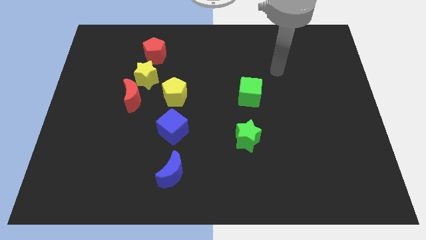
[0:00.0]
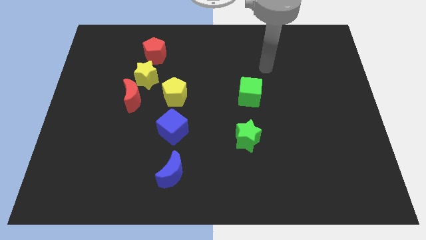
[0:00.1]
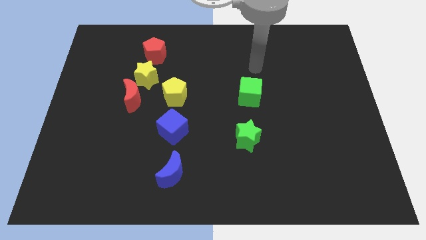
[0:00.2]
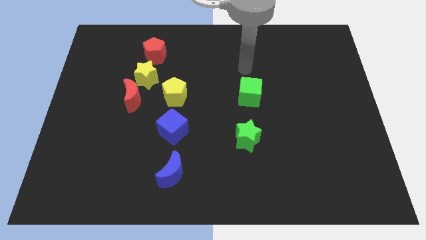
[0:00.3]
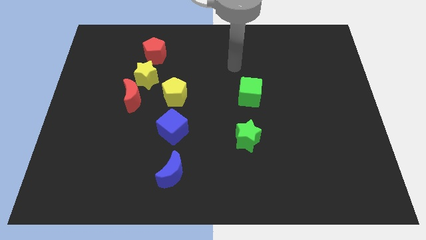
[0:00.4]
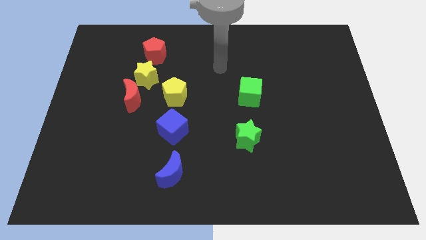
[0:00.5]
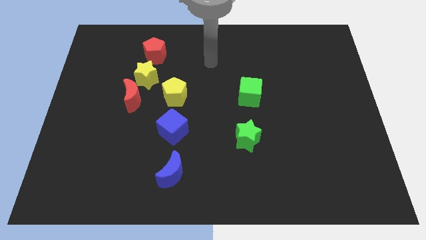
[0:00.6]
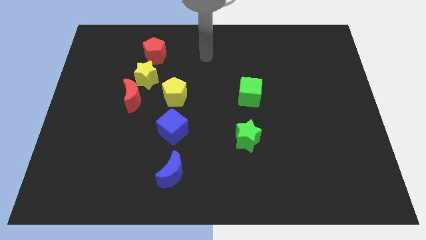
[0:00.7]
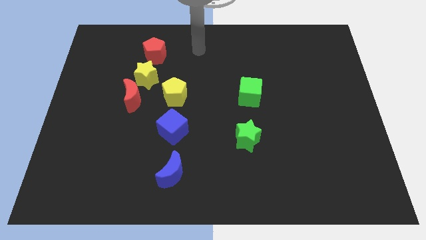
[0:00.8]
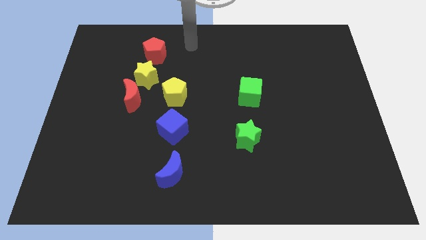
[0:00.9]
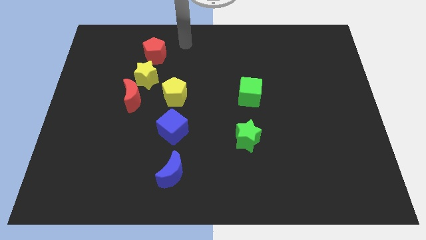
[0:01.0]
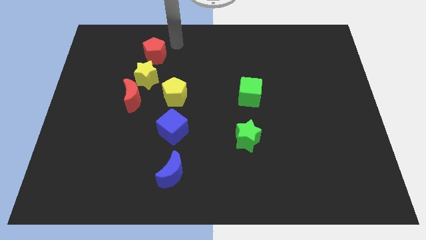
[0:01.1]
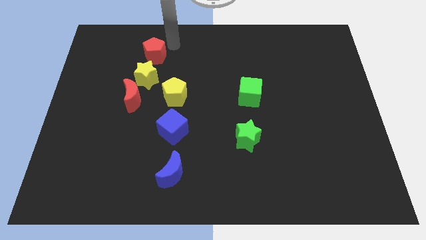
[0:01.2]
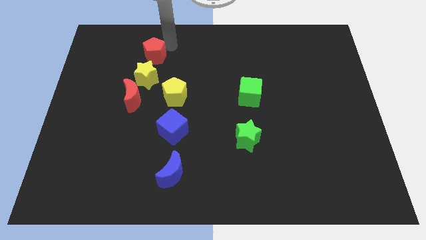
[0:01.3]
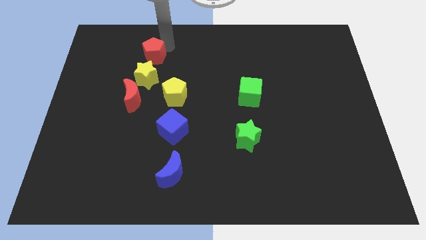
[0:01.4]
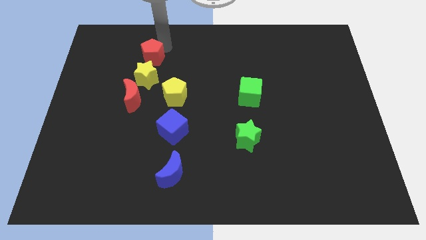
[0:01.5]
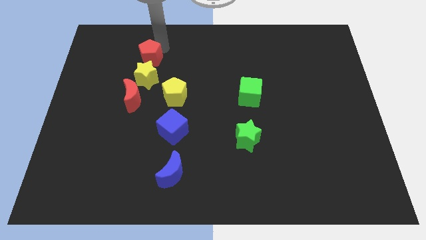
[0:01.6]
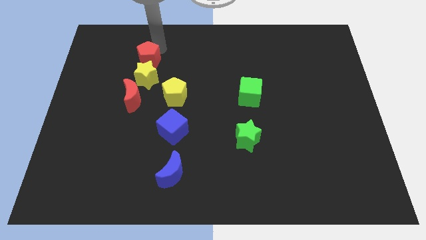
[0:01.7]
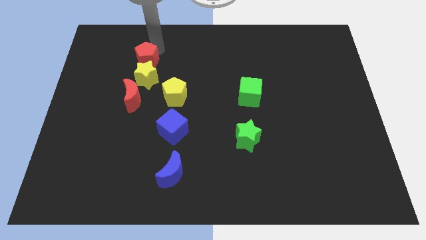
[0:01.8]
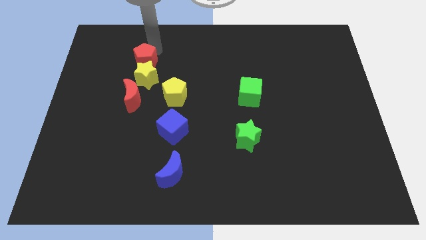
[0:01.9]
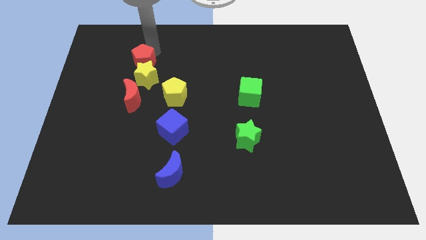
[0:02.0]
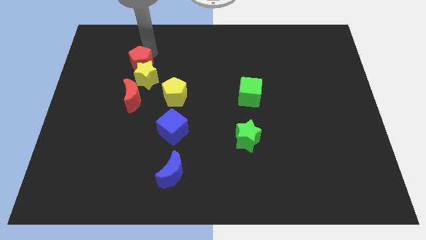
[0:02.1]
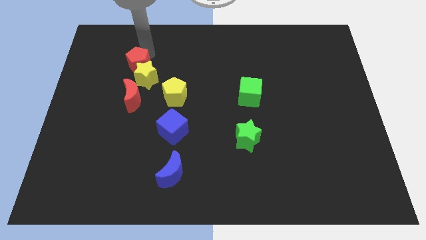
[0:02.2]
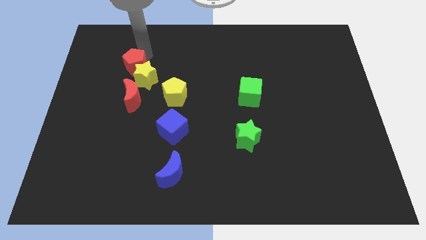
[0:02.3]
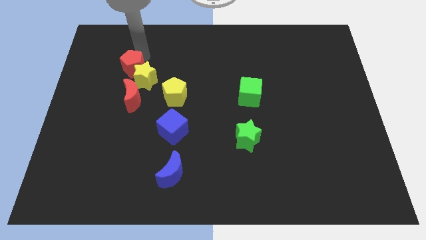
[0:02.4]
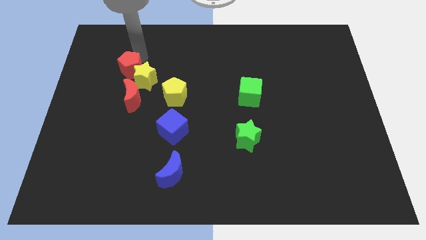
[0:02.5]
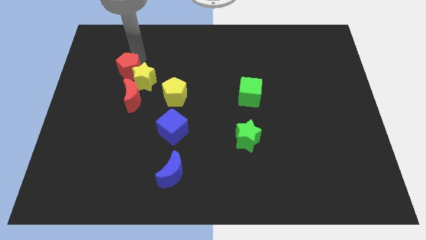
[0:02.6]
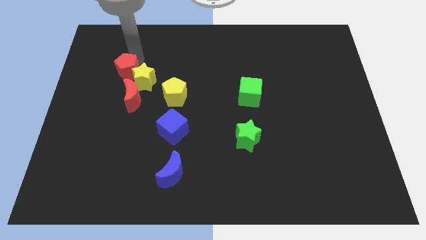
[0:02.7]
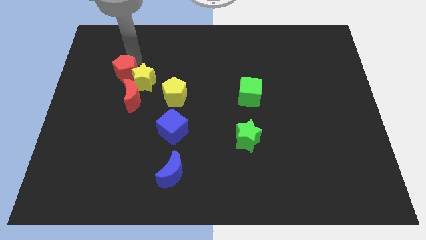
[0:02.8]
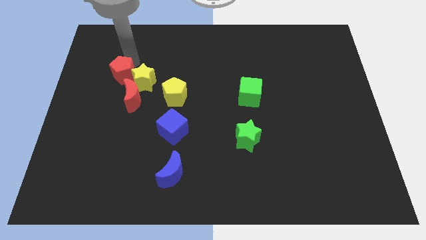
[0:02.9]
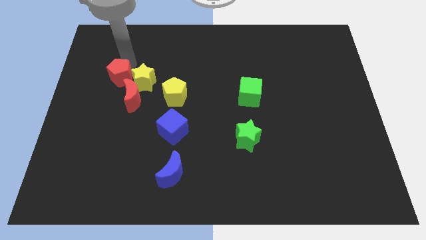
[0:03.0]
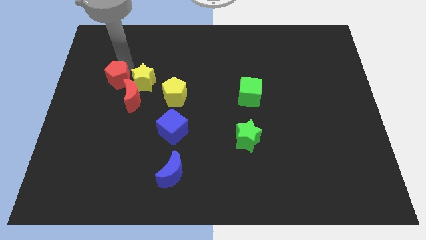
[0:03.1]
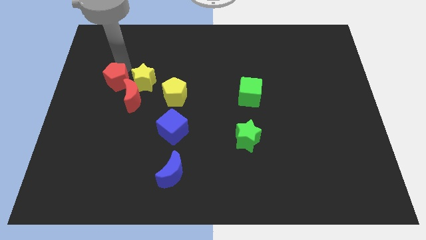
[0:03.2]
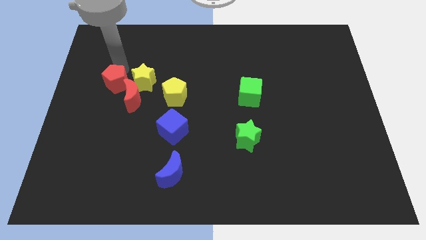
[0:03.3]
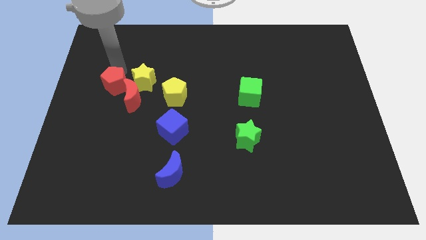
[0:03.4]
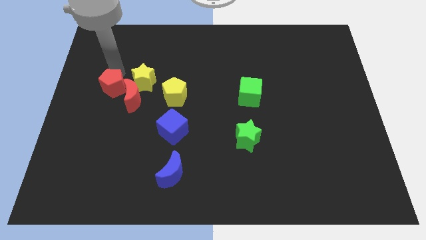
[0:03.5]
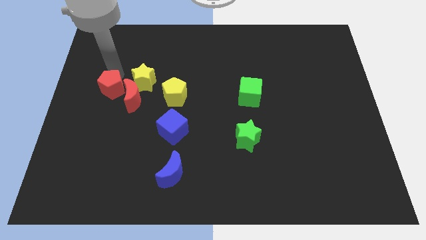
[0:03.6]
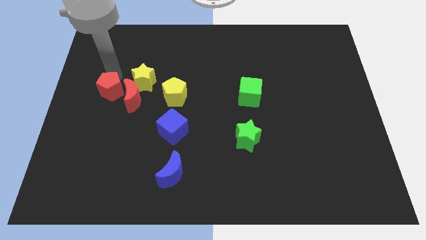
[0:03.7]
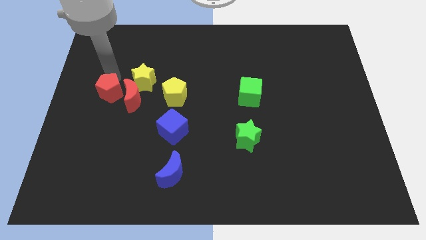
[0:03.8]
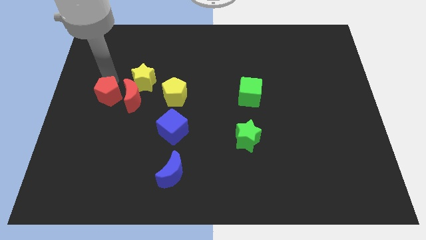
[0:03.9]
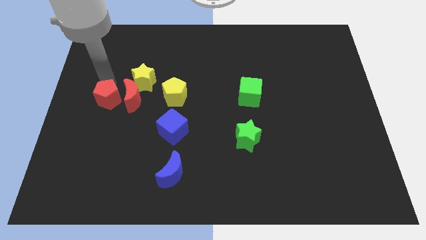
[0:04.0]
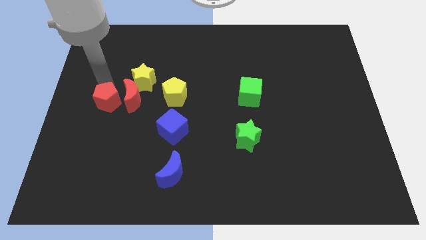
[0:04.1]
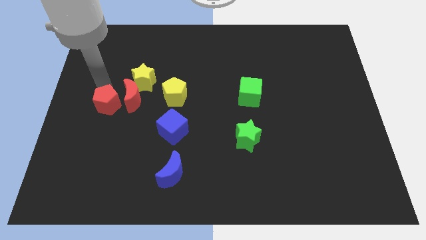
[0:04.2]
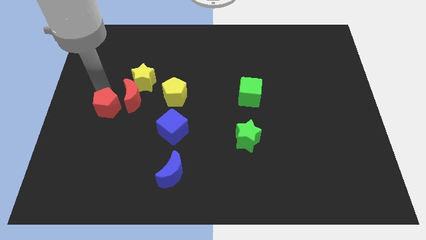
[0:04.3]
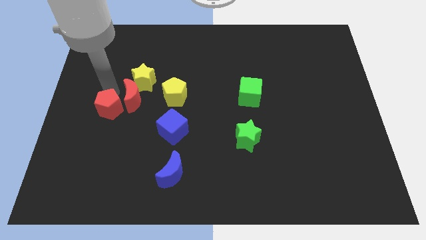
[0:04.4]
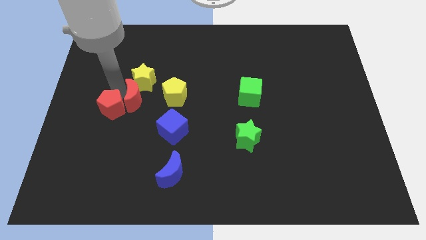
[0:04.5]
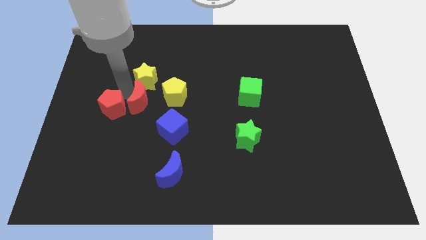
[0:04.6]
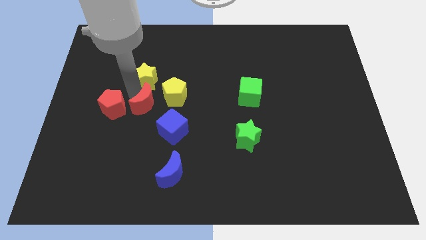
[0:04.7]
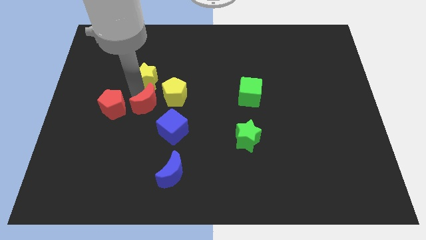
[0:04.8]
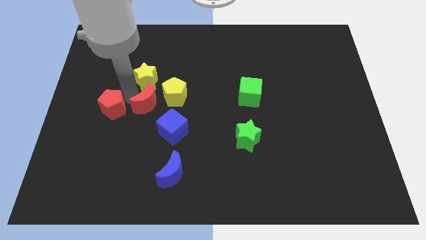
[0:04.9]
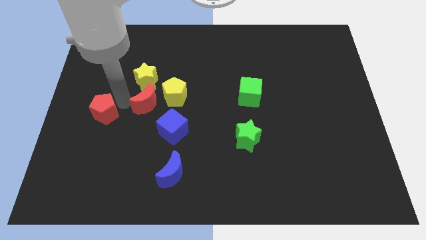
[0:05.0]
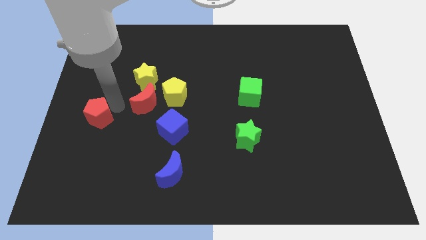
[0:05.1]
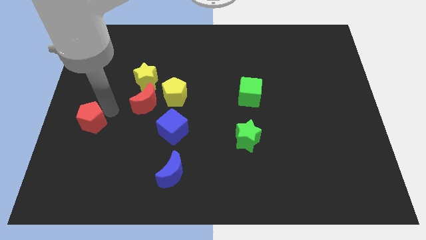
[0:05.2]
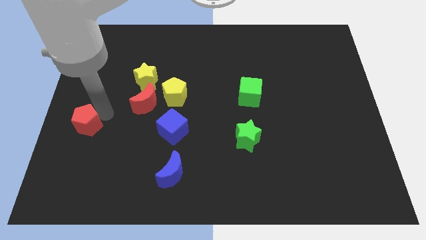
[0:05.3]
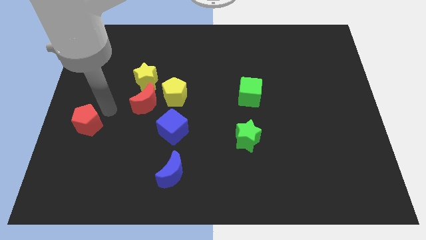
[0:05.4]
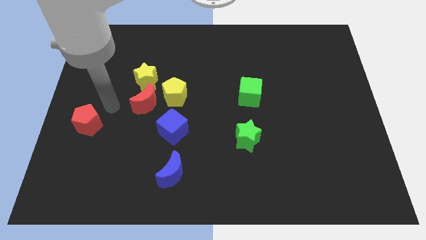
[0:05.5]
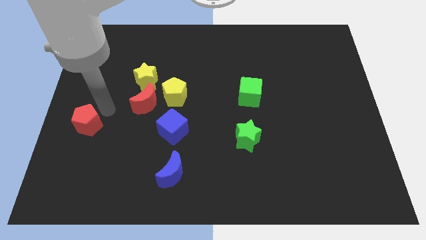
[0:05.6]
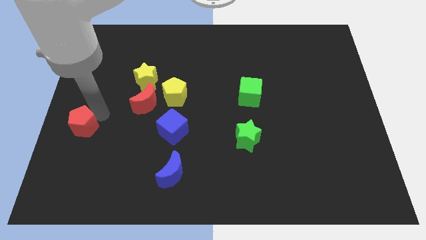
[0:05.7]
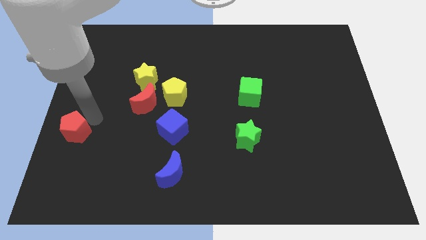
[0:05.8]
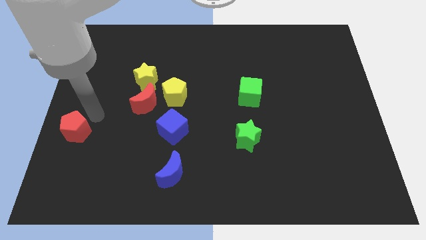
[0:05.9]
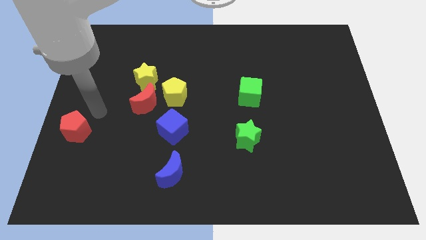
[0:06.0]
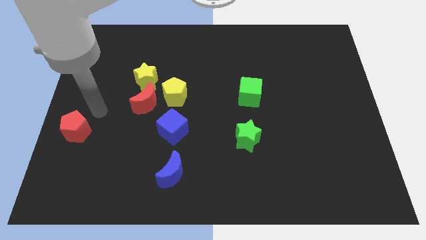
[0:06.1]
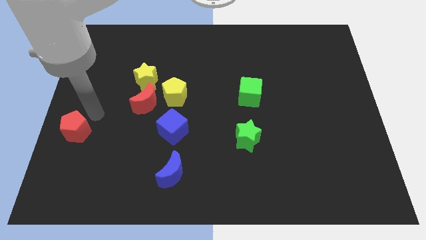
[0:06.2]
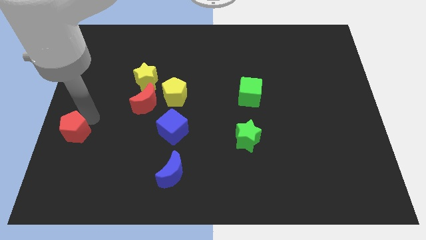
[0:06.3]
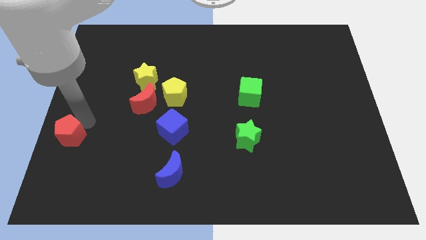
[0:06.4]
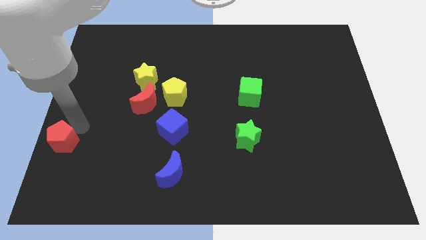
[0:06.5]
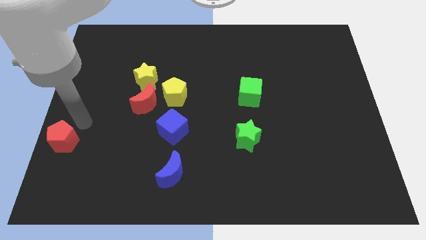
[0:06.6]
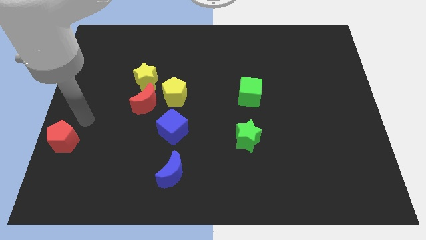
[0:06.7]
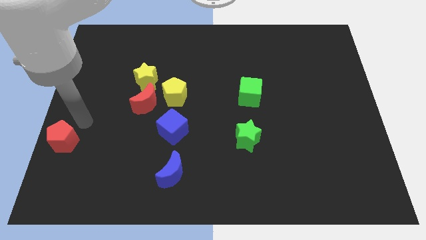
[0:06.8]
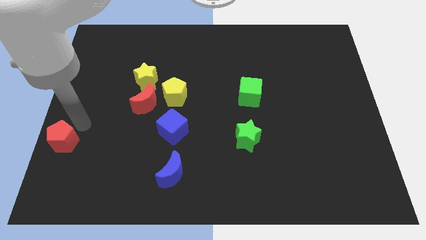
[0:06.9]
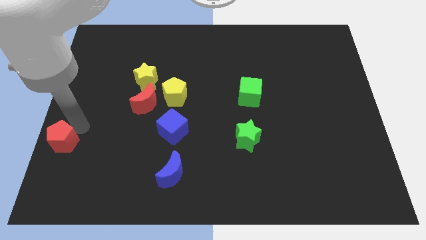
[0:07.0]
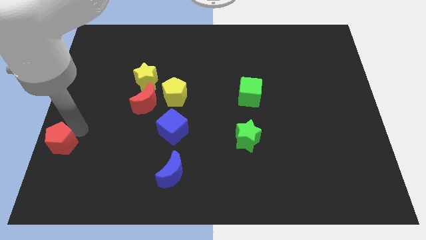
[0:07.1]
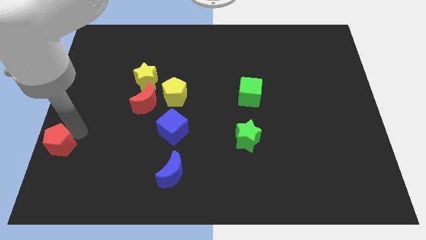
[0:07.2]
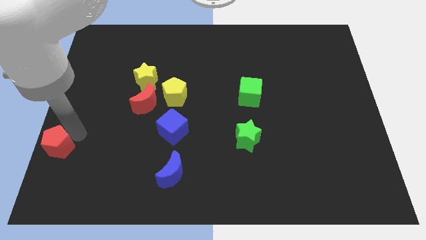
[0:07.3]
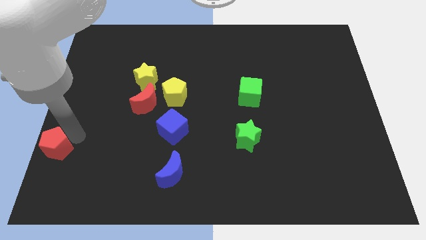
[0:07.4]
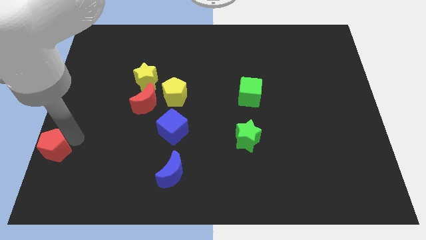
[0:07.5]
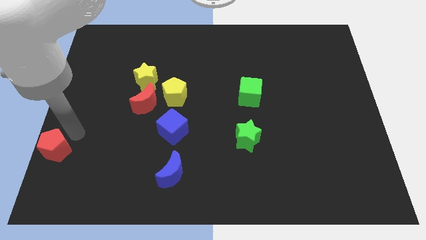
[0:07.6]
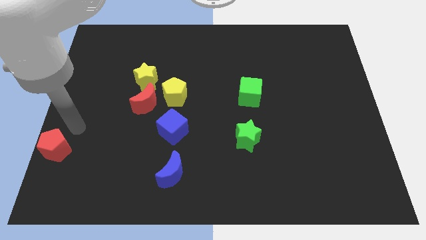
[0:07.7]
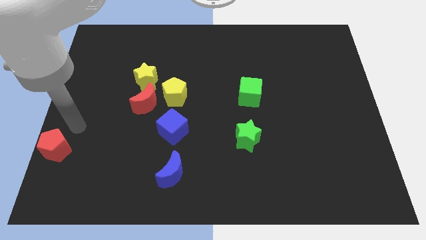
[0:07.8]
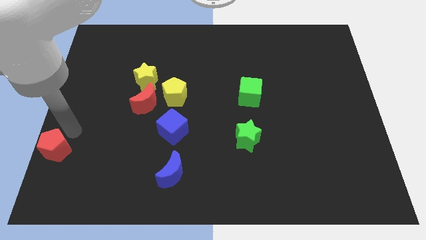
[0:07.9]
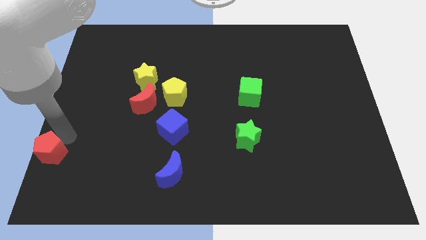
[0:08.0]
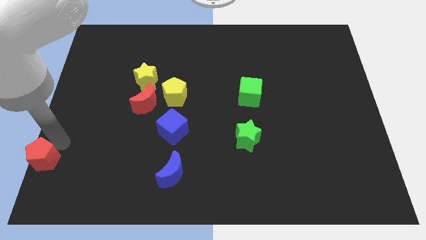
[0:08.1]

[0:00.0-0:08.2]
put the red pentagon to the lower left corner

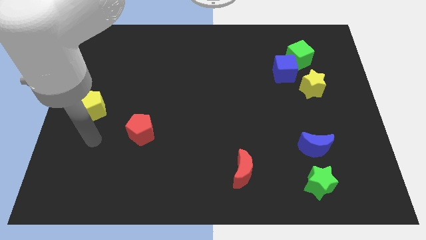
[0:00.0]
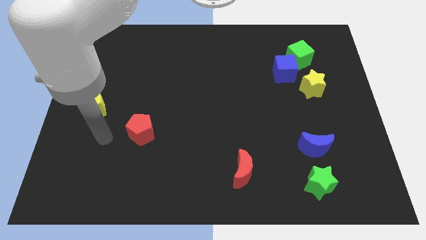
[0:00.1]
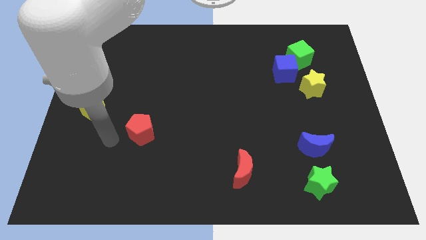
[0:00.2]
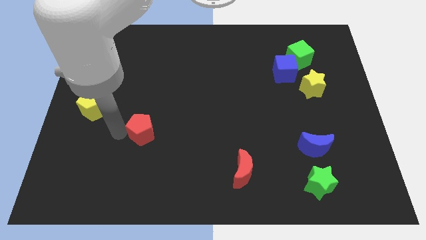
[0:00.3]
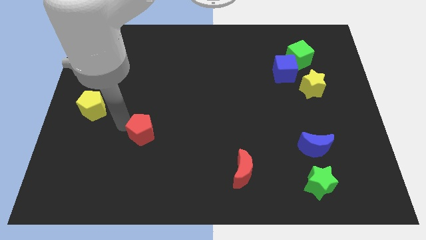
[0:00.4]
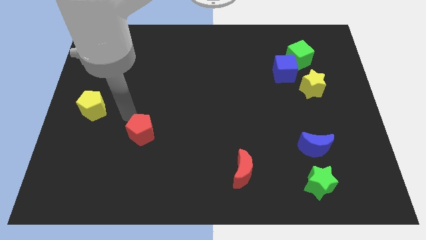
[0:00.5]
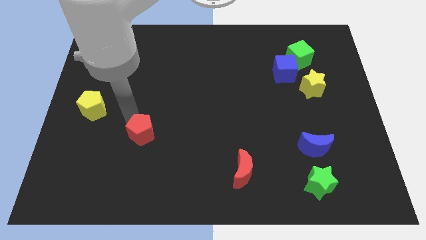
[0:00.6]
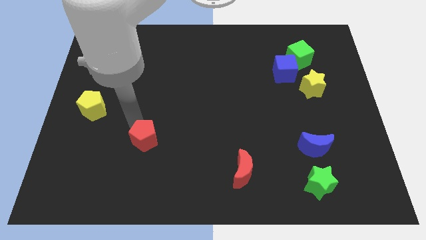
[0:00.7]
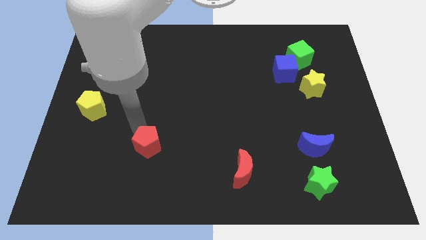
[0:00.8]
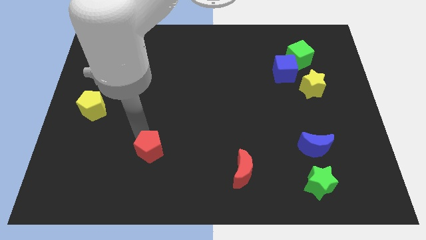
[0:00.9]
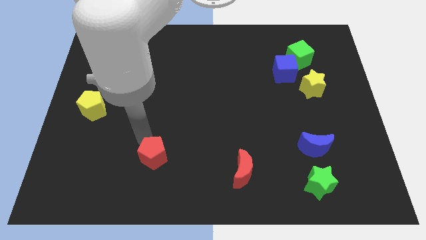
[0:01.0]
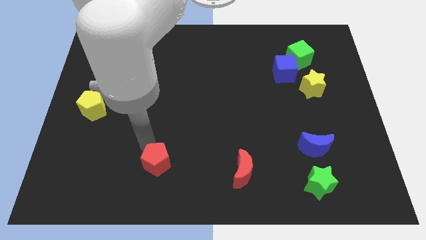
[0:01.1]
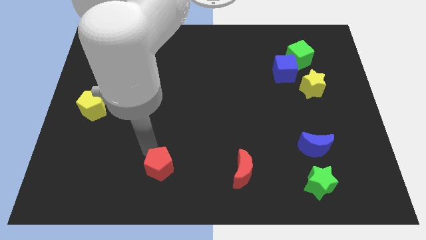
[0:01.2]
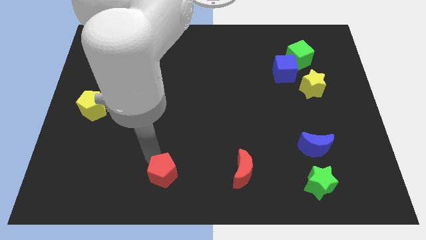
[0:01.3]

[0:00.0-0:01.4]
move the red pentagon to the bottom side
